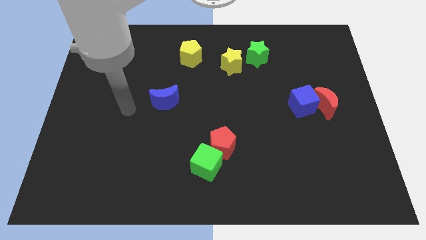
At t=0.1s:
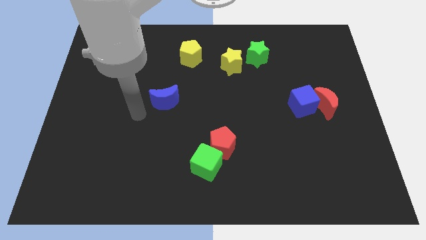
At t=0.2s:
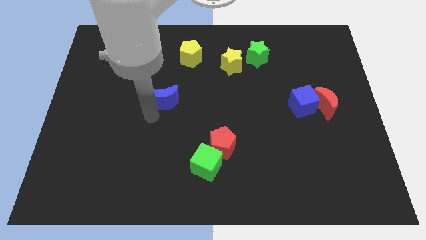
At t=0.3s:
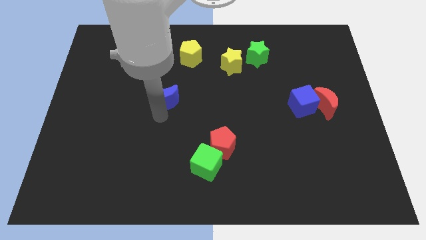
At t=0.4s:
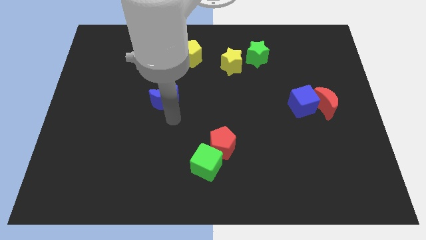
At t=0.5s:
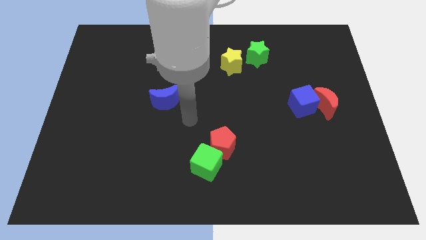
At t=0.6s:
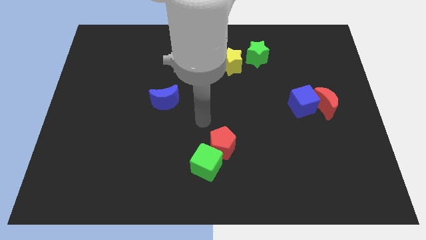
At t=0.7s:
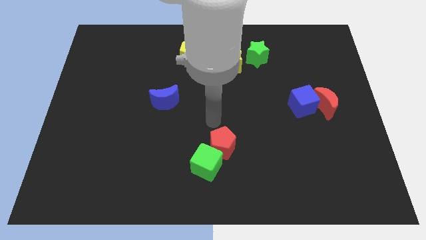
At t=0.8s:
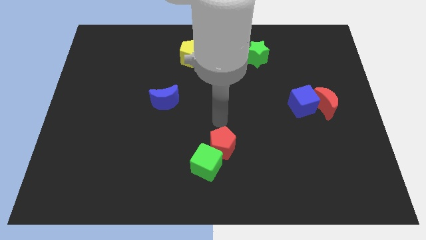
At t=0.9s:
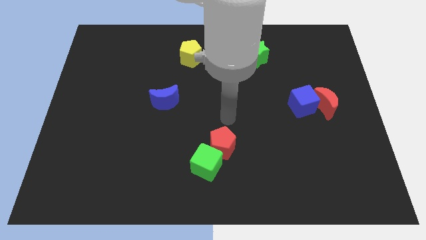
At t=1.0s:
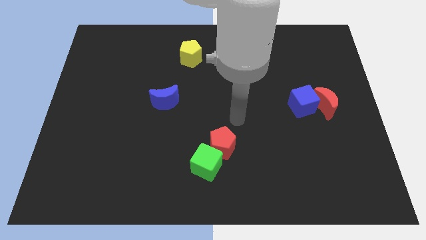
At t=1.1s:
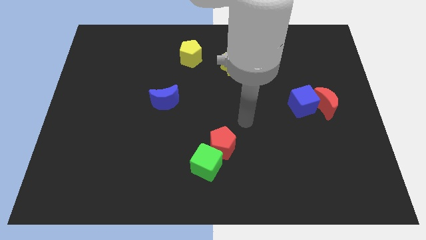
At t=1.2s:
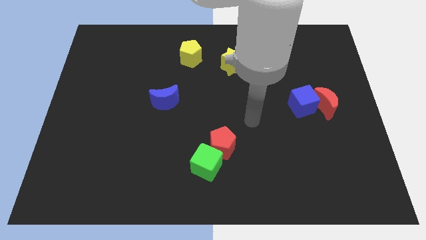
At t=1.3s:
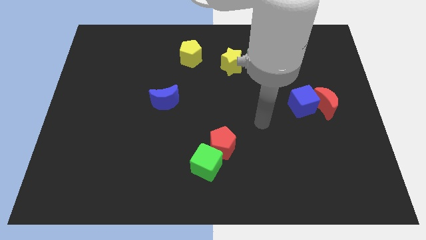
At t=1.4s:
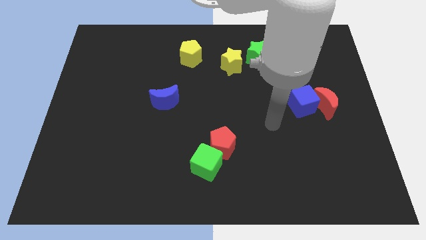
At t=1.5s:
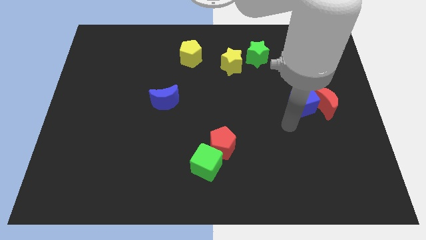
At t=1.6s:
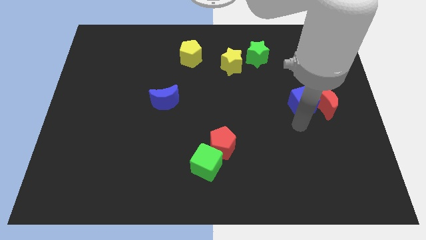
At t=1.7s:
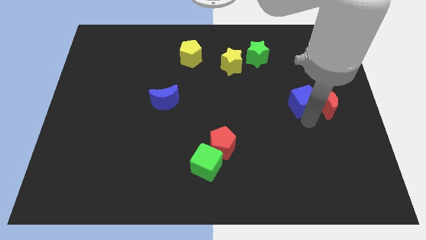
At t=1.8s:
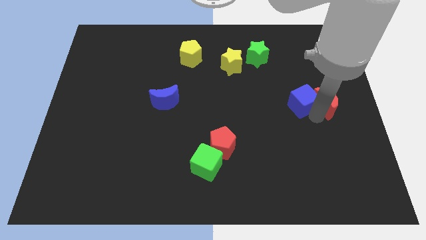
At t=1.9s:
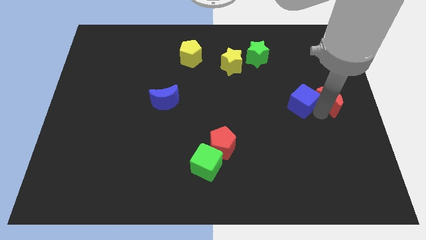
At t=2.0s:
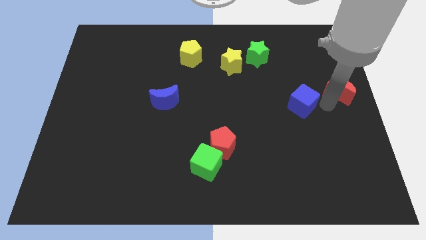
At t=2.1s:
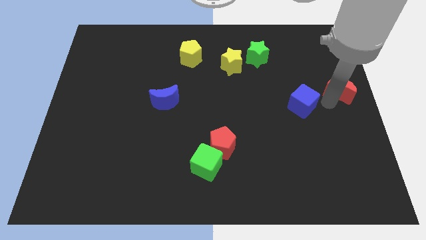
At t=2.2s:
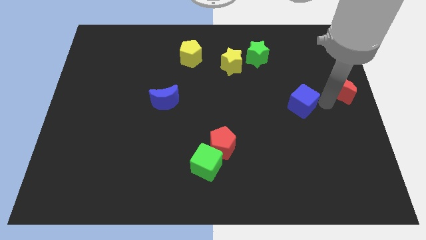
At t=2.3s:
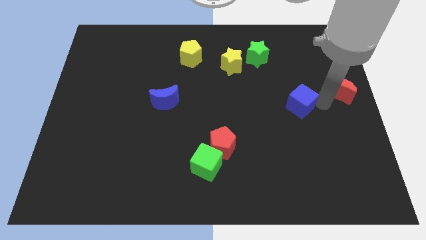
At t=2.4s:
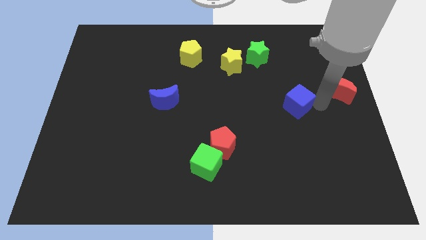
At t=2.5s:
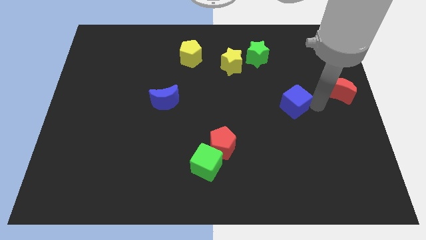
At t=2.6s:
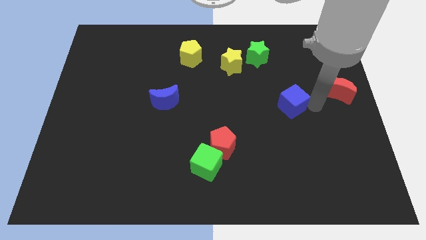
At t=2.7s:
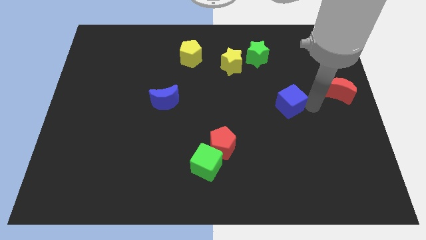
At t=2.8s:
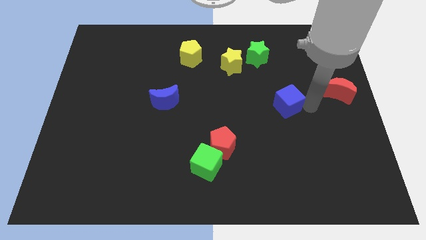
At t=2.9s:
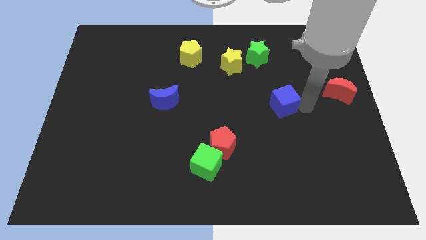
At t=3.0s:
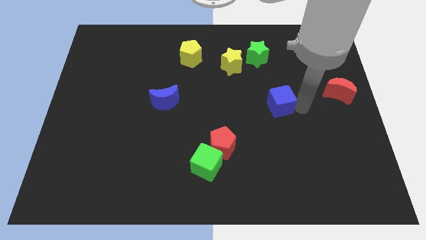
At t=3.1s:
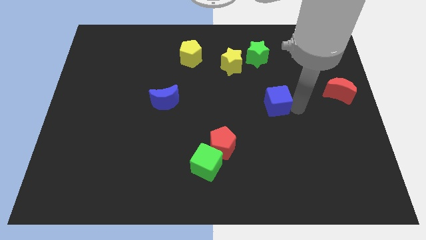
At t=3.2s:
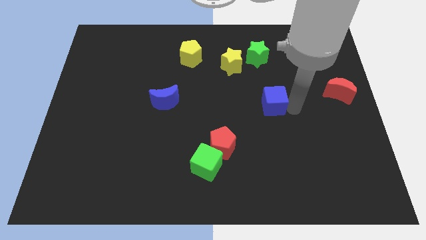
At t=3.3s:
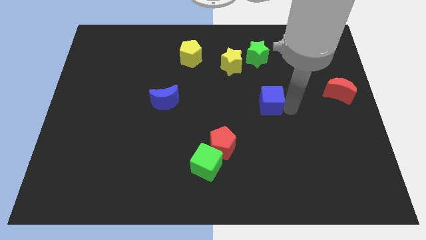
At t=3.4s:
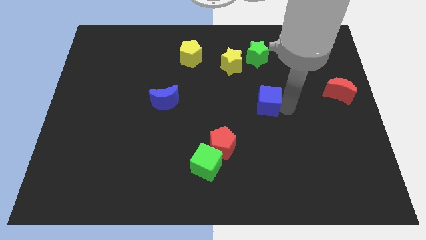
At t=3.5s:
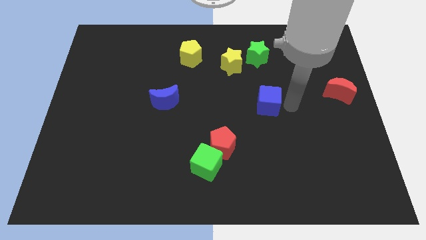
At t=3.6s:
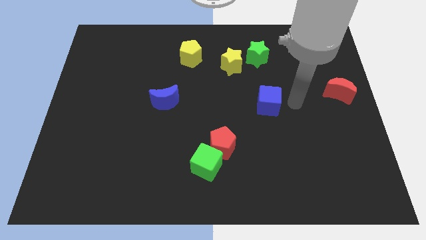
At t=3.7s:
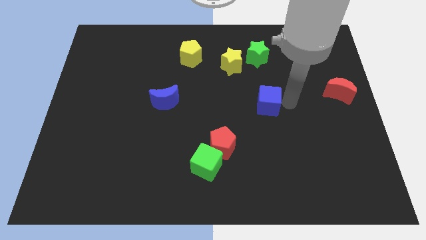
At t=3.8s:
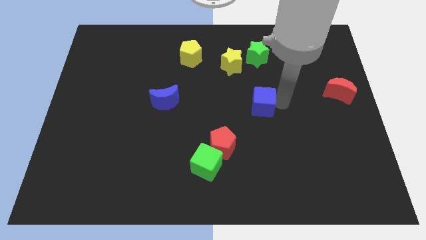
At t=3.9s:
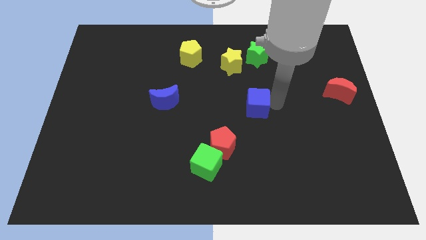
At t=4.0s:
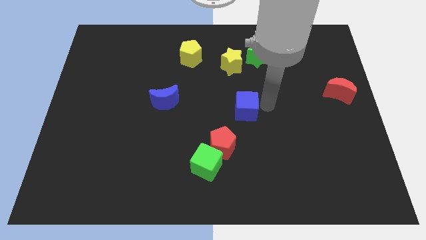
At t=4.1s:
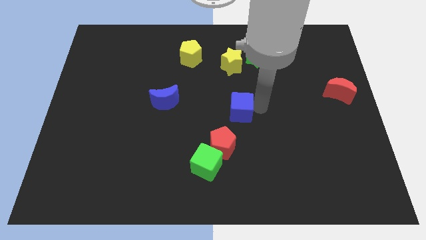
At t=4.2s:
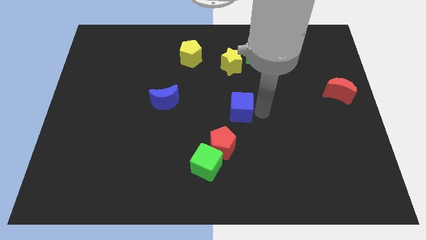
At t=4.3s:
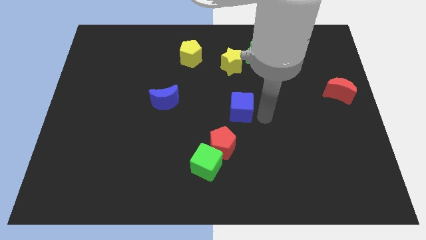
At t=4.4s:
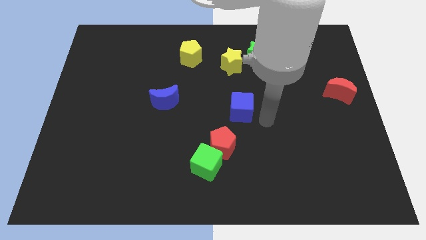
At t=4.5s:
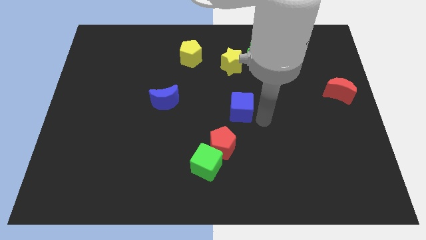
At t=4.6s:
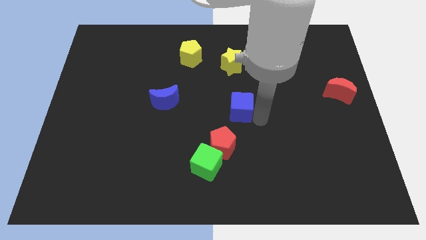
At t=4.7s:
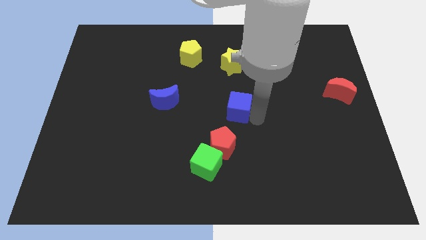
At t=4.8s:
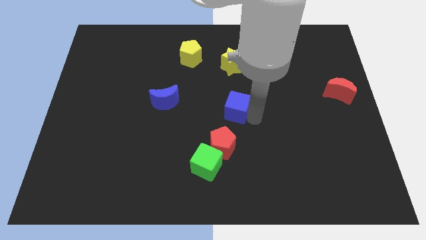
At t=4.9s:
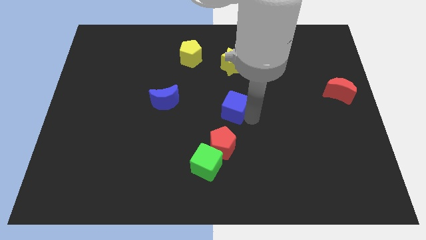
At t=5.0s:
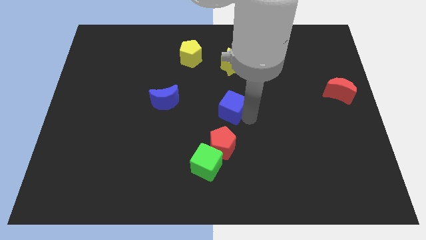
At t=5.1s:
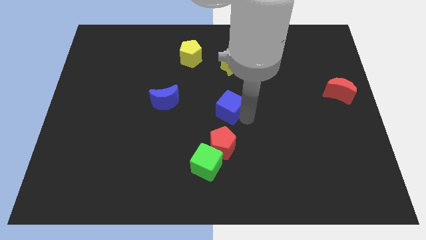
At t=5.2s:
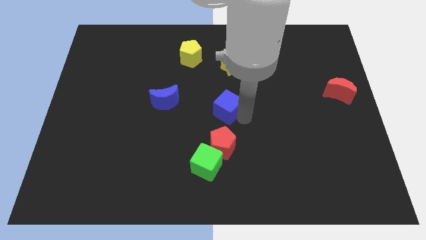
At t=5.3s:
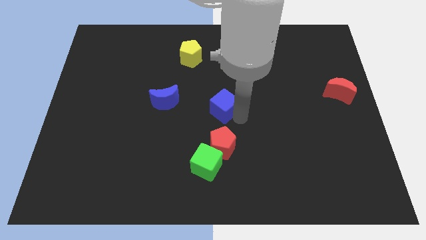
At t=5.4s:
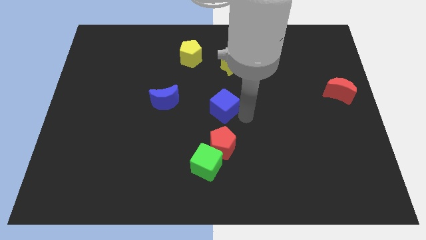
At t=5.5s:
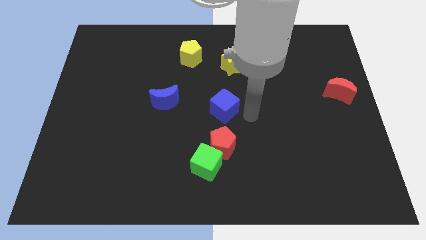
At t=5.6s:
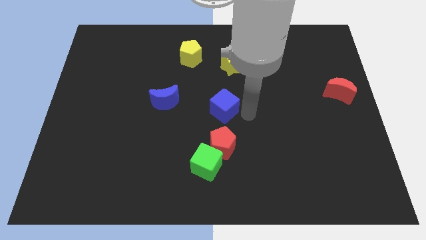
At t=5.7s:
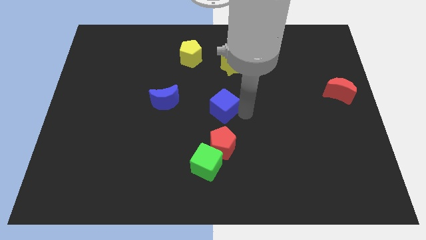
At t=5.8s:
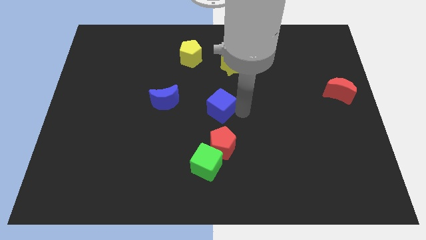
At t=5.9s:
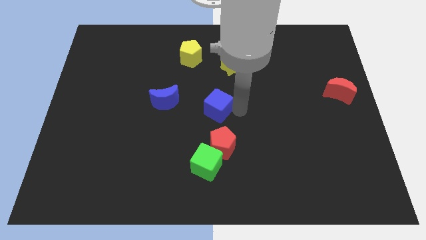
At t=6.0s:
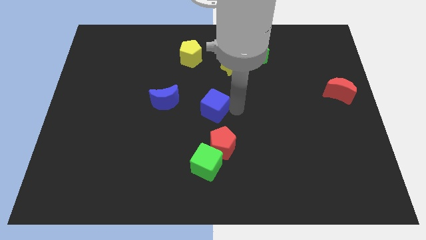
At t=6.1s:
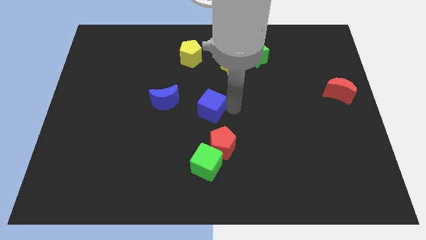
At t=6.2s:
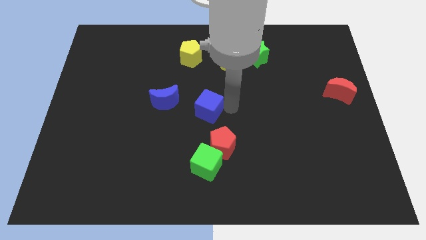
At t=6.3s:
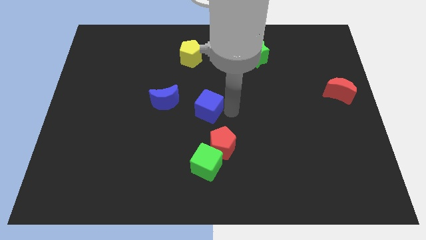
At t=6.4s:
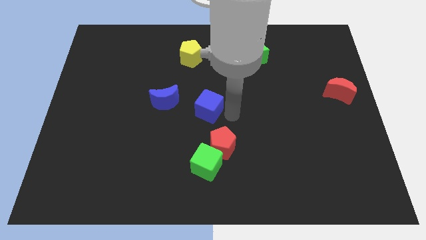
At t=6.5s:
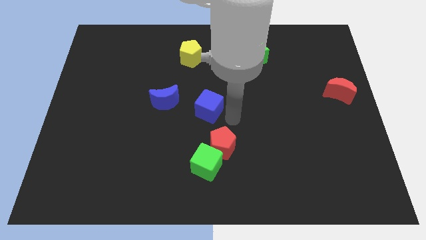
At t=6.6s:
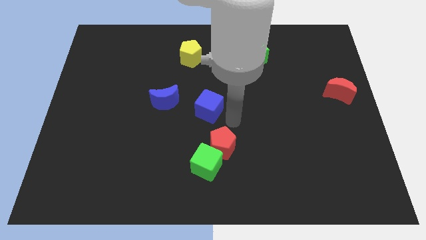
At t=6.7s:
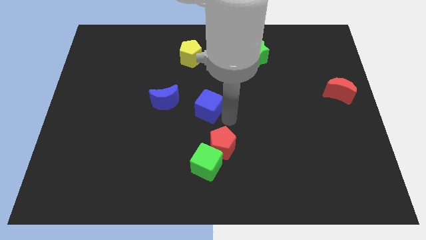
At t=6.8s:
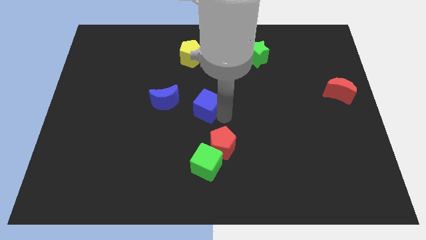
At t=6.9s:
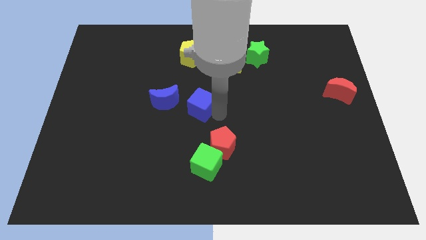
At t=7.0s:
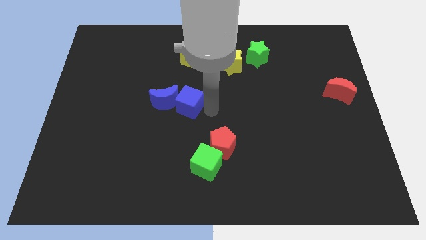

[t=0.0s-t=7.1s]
slide the blue cube towards the blue moon

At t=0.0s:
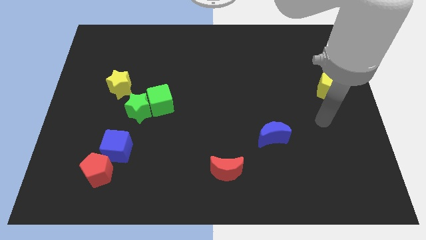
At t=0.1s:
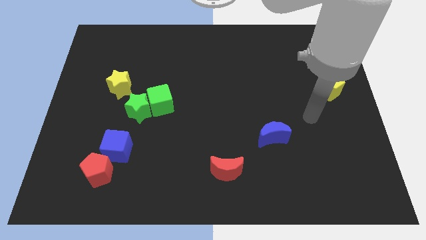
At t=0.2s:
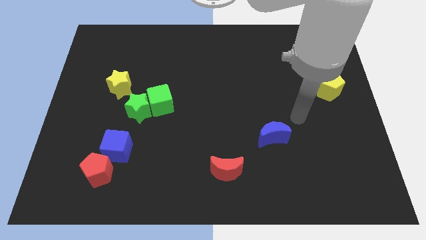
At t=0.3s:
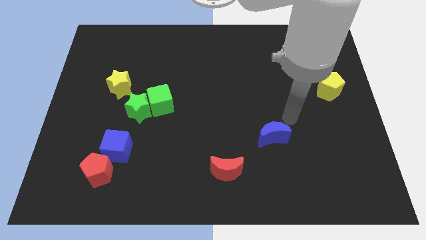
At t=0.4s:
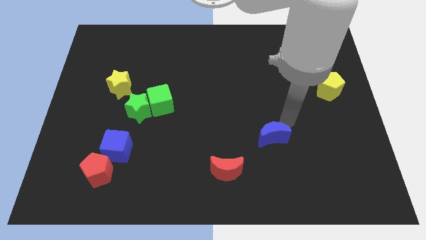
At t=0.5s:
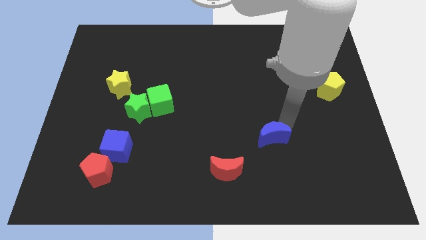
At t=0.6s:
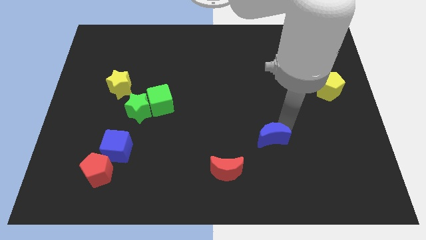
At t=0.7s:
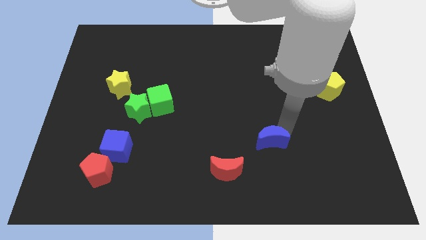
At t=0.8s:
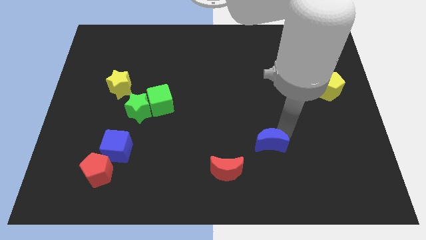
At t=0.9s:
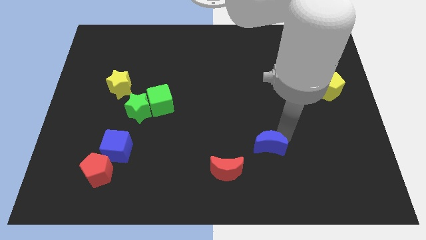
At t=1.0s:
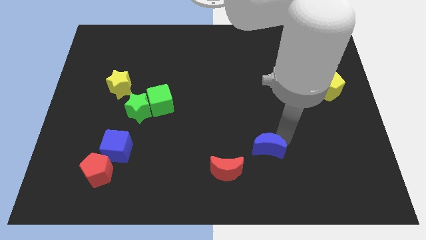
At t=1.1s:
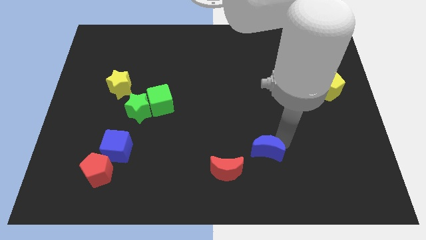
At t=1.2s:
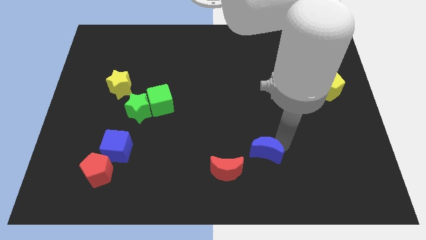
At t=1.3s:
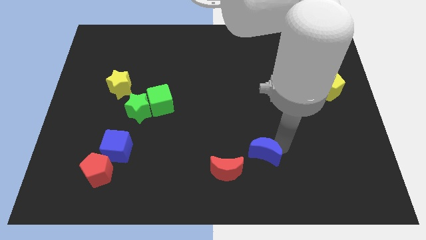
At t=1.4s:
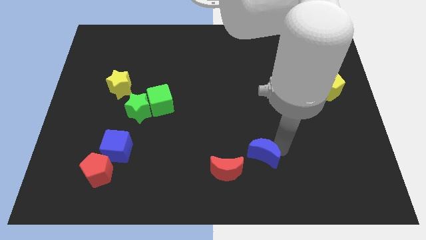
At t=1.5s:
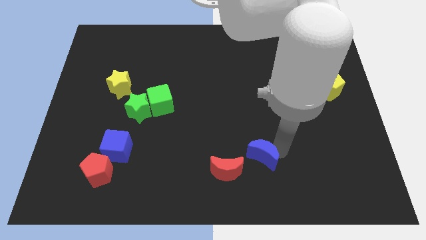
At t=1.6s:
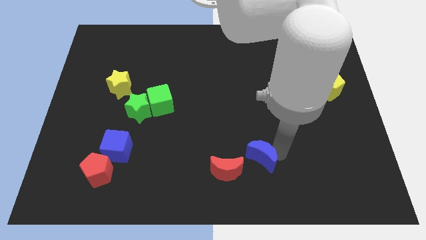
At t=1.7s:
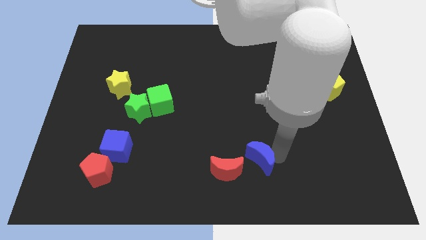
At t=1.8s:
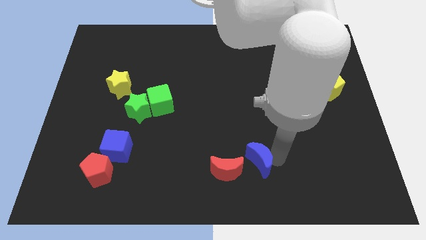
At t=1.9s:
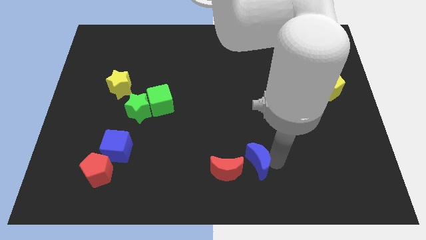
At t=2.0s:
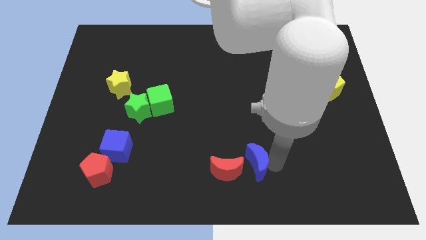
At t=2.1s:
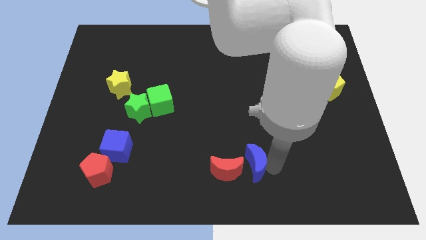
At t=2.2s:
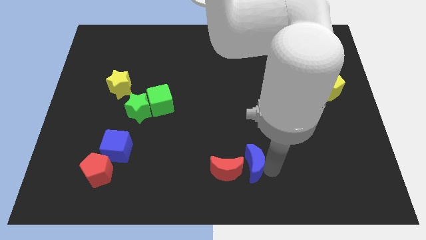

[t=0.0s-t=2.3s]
push the blue moon to the red moon
